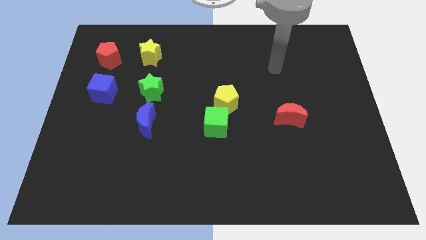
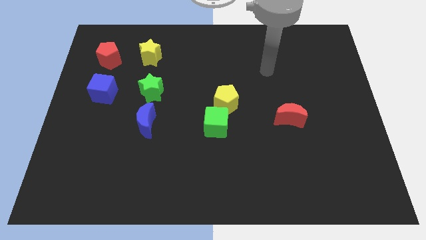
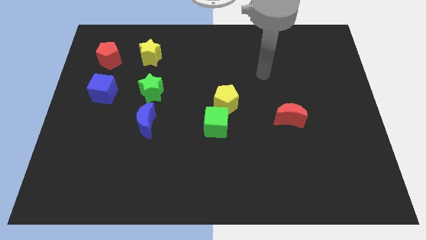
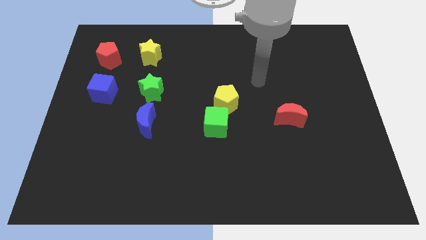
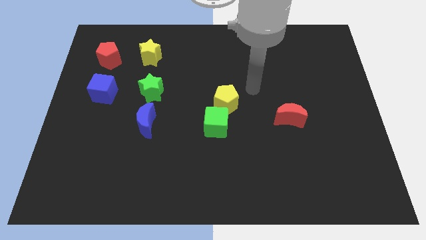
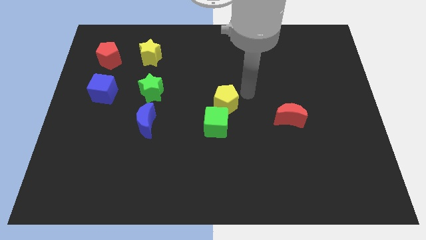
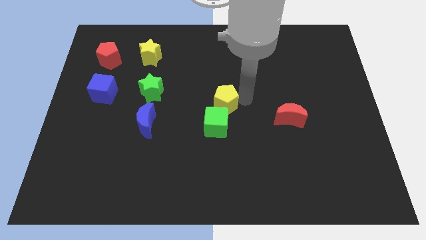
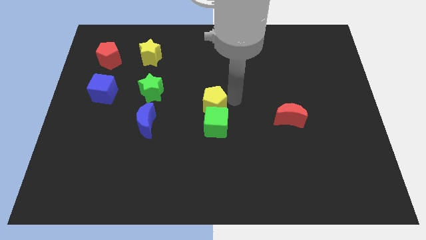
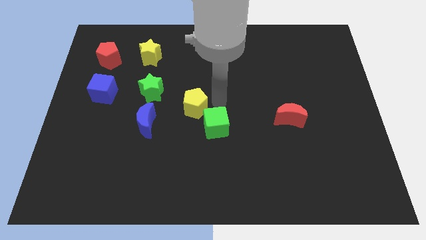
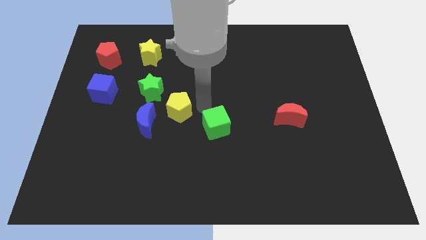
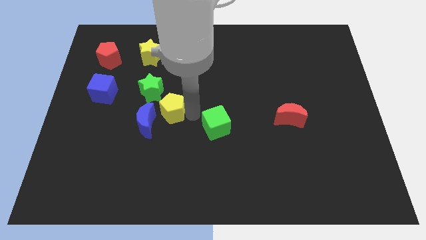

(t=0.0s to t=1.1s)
separate the green cube from the yellow pentagon

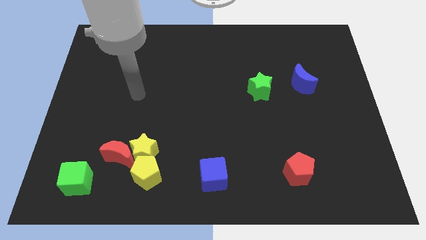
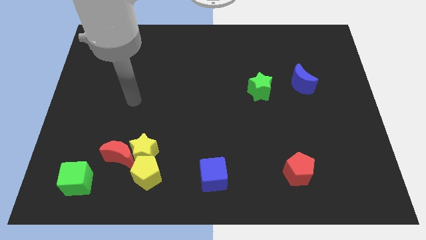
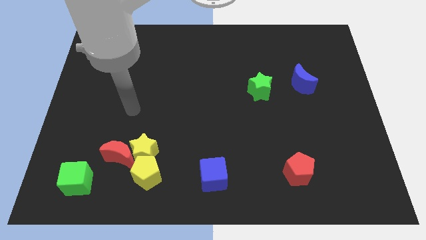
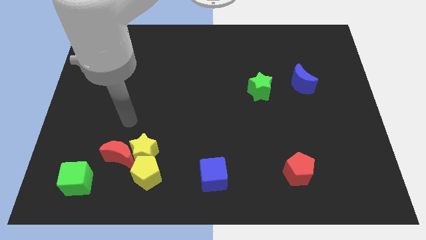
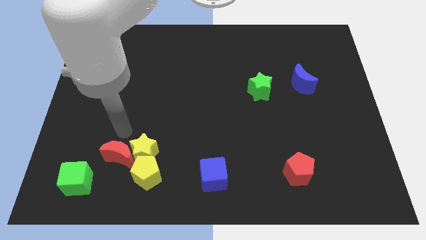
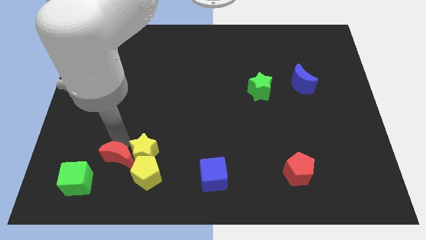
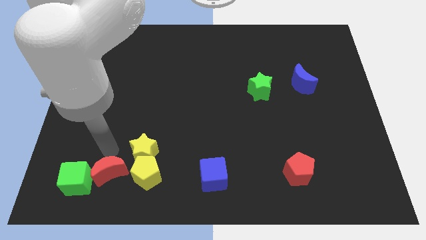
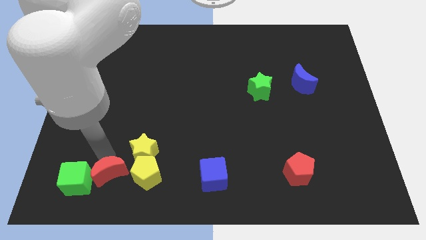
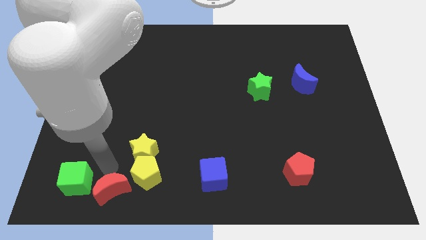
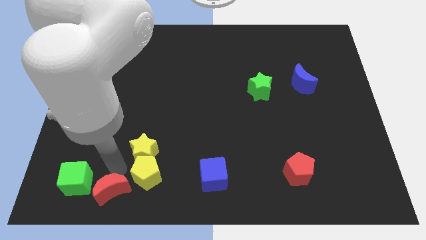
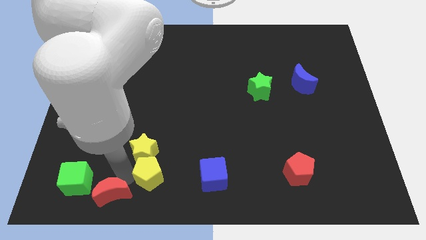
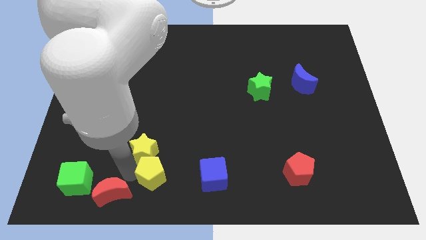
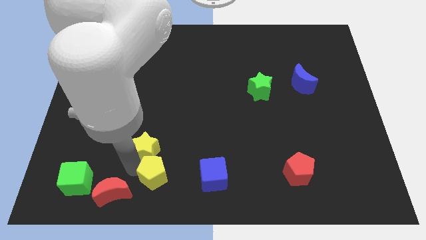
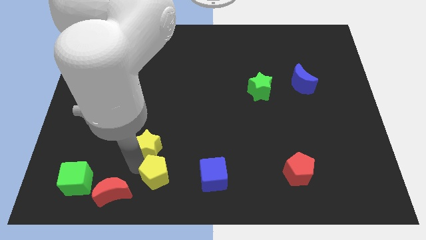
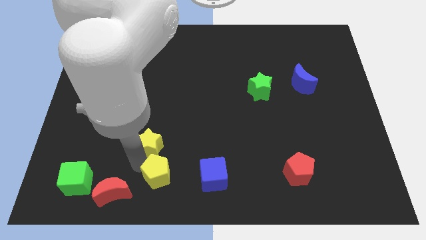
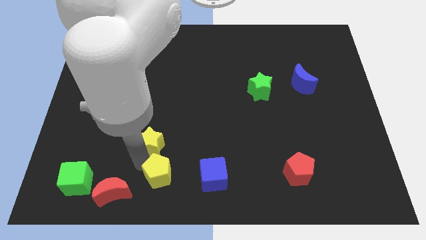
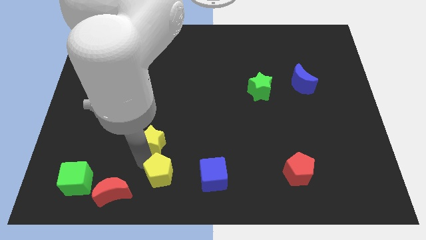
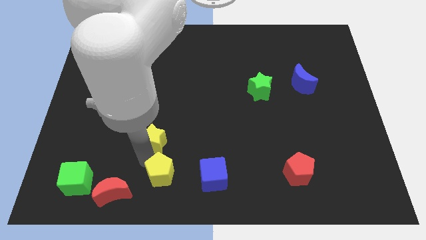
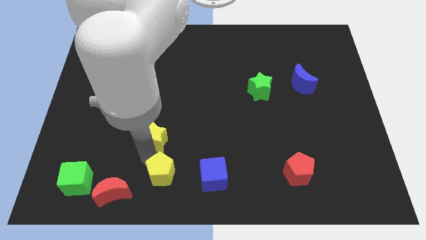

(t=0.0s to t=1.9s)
pull the yellow star apart from the red moon and yellow pentagon

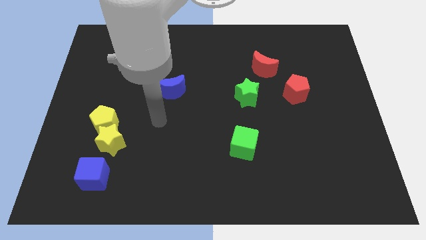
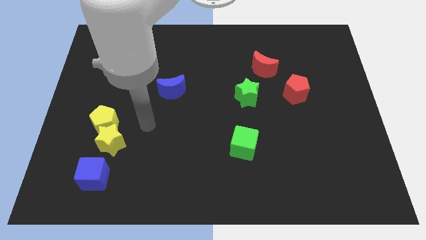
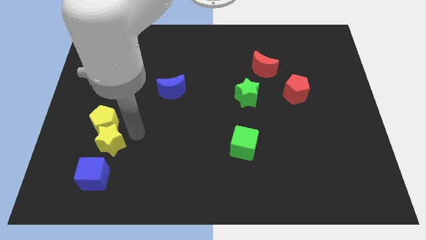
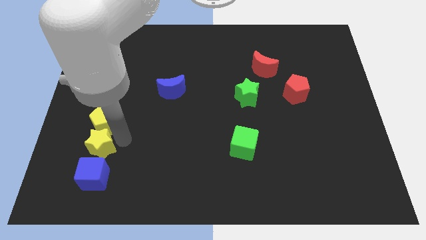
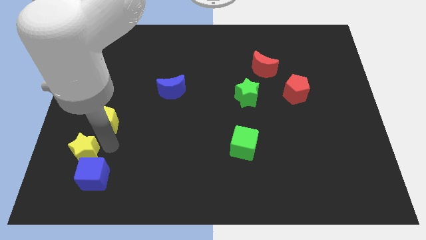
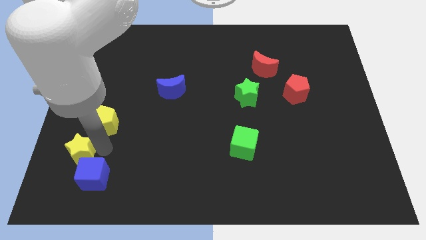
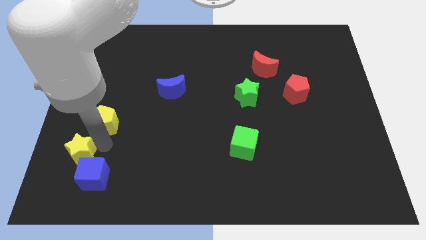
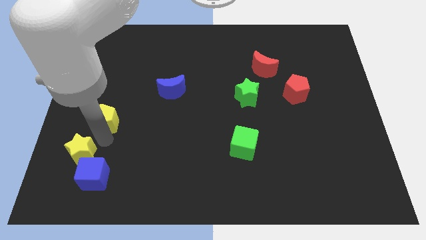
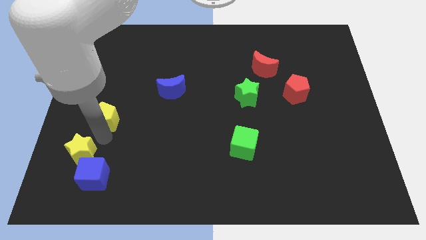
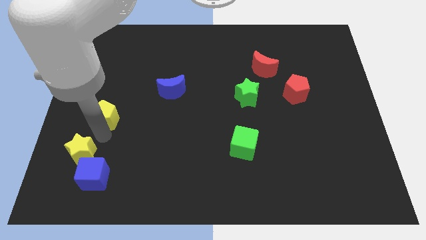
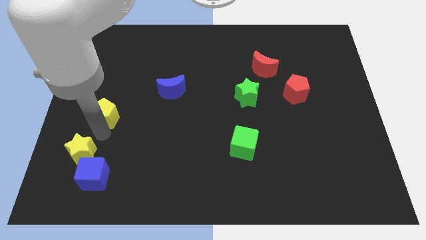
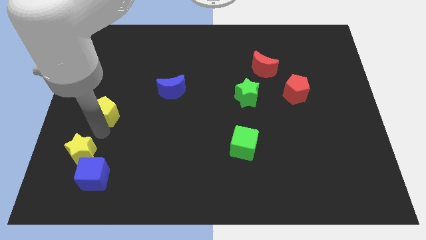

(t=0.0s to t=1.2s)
move the yellow pentagon away from the yellow star

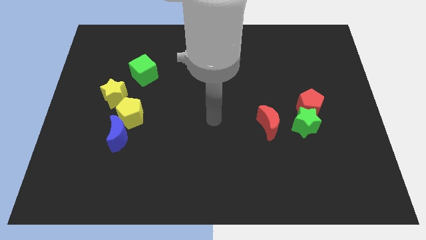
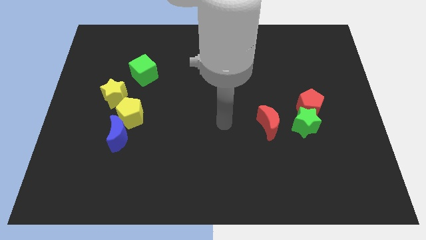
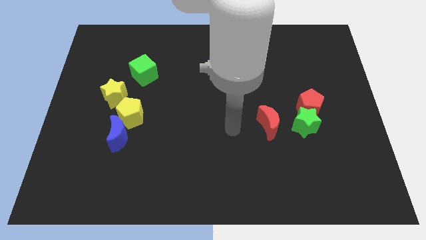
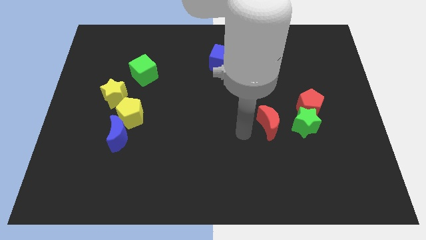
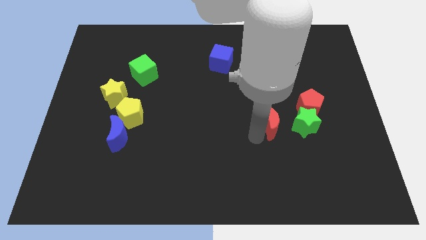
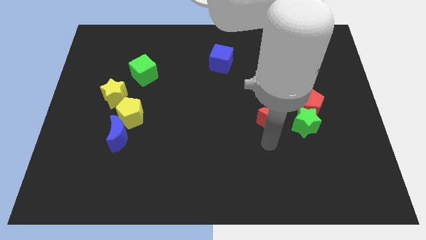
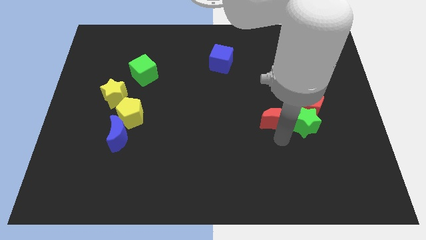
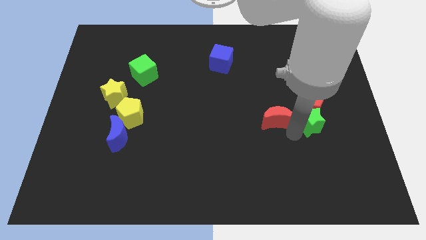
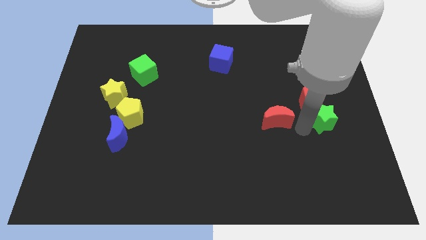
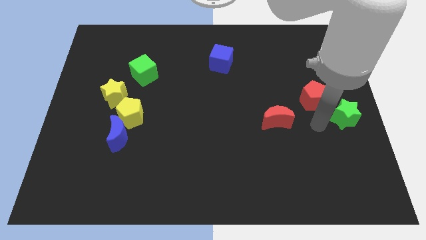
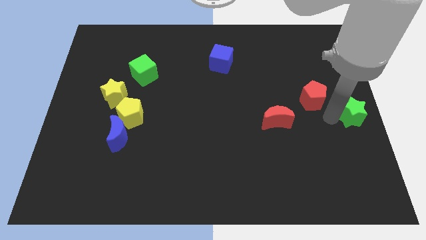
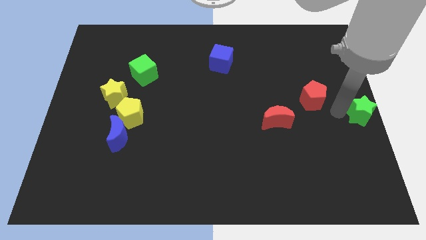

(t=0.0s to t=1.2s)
separate the red pentagon from the green star

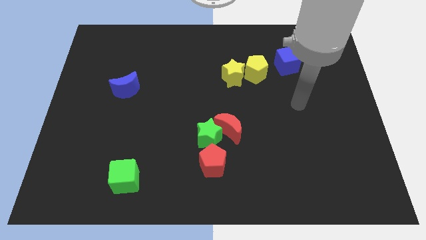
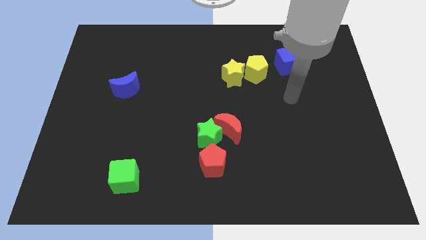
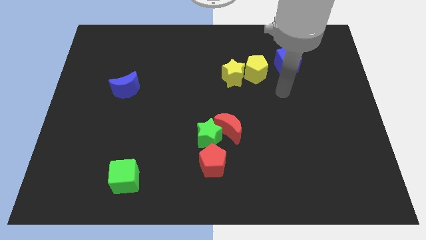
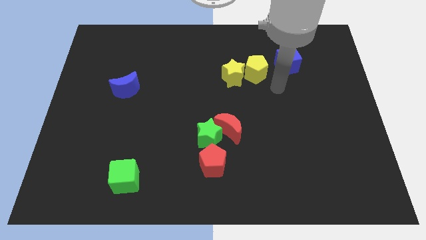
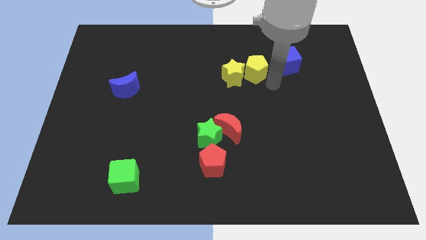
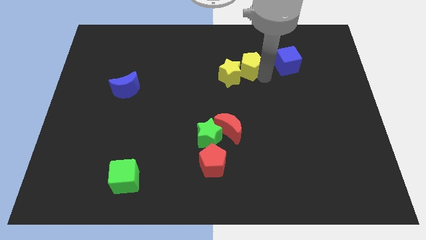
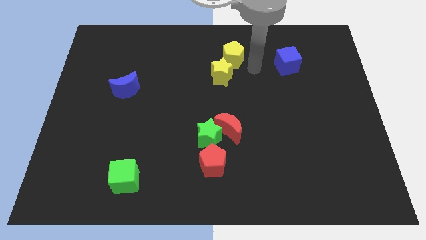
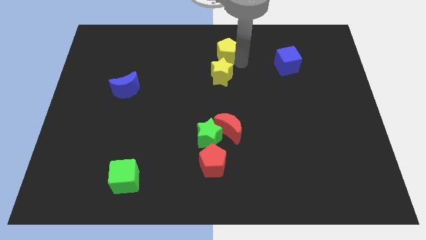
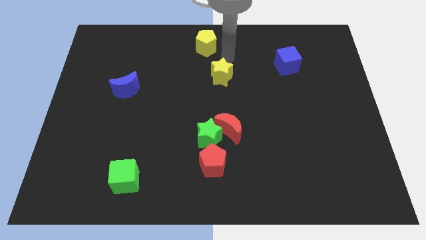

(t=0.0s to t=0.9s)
pull the yellow star apart from the yellow pentagon

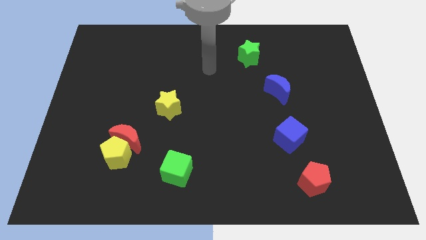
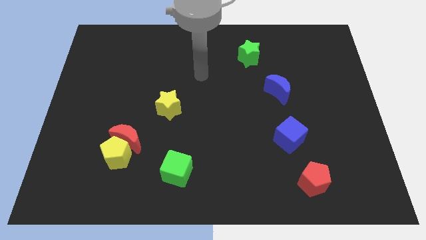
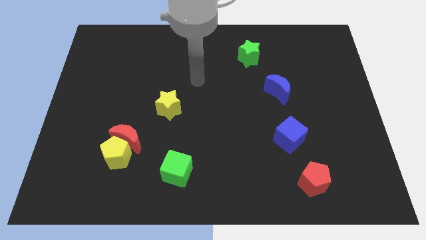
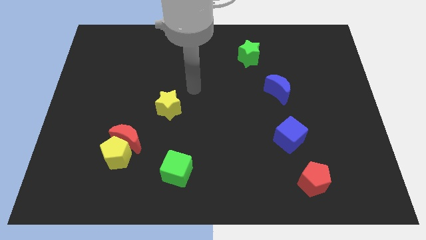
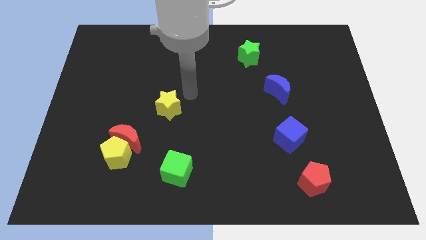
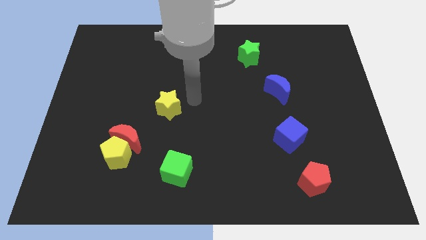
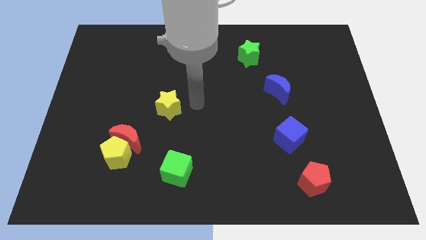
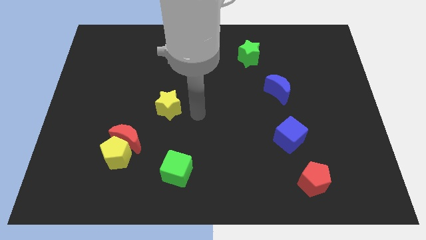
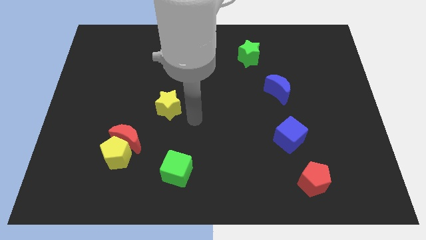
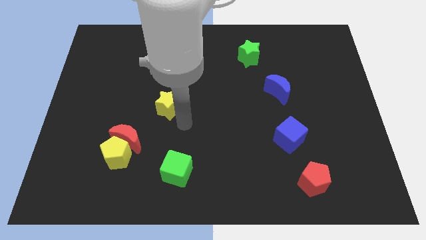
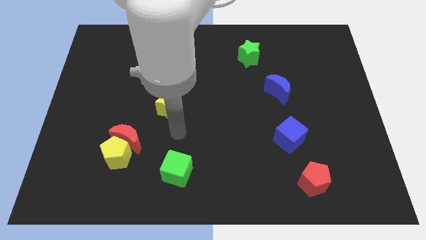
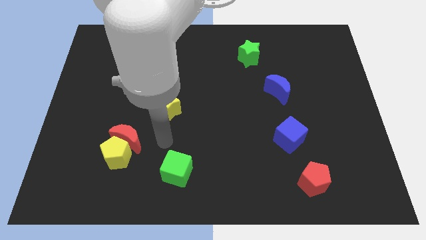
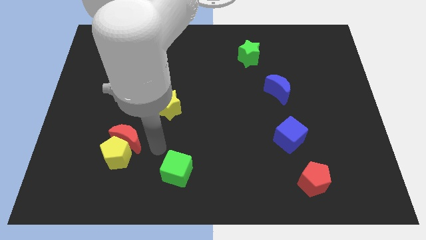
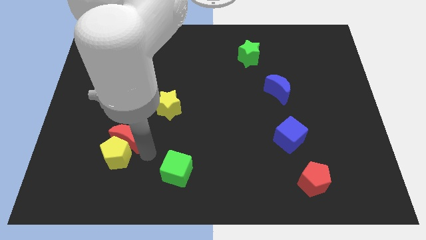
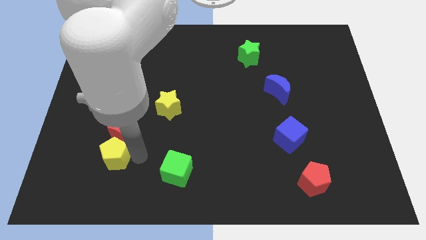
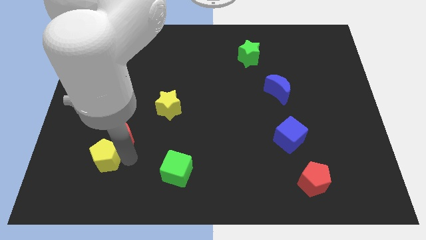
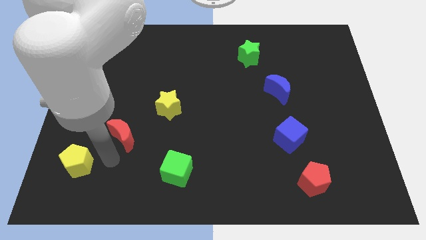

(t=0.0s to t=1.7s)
separate the red moon from the yellow pentagon

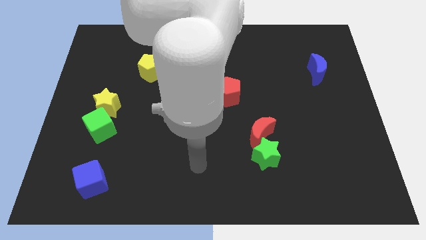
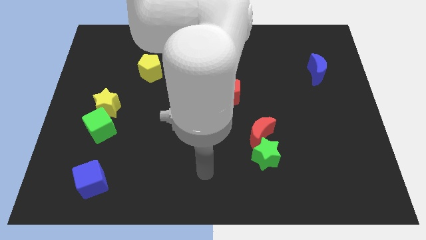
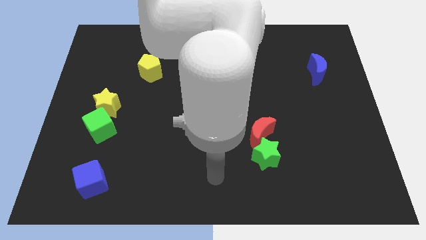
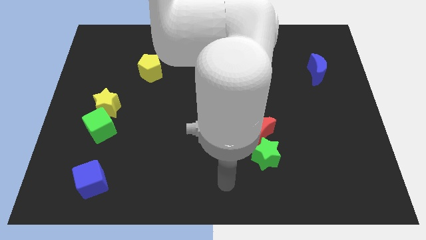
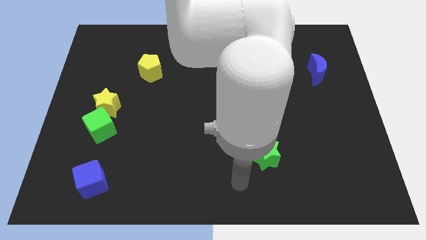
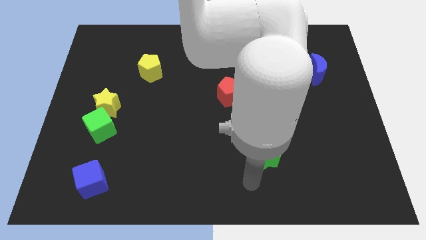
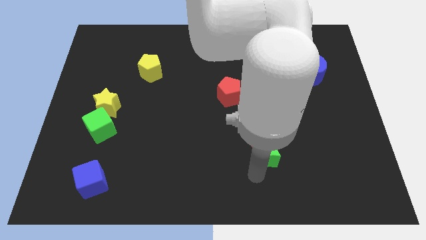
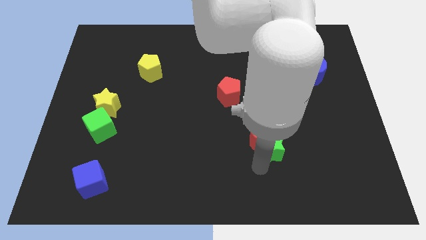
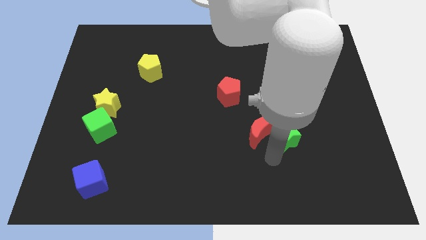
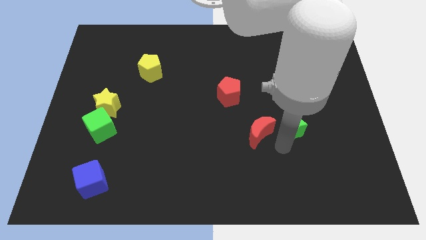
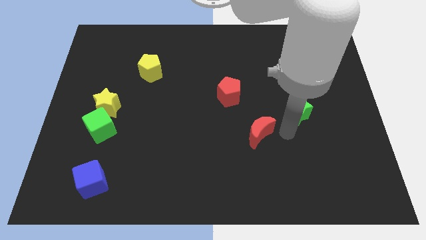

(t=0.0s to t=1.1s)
pull the red moon apart from the green star
